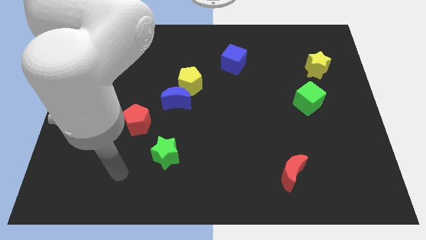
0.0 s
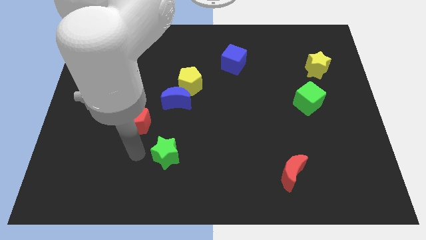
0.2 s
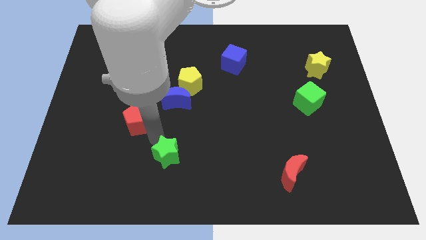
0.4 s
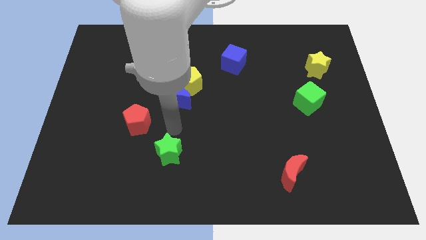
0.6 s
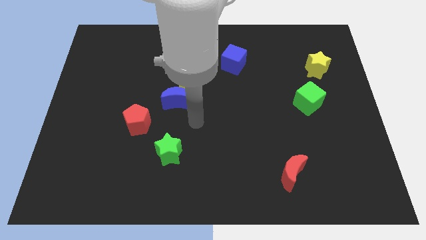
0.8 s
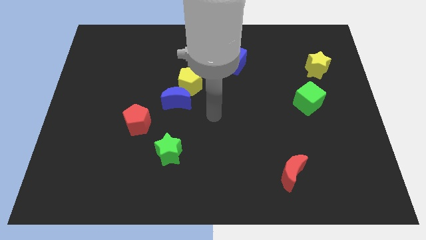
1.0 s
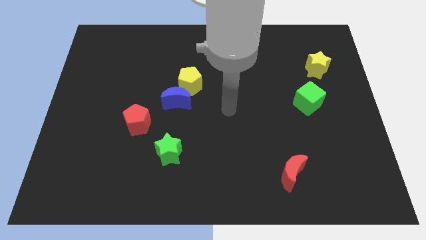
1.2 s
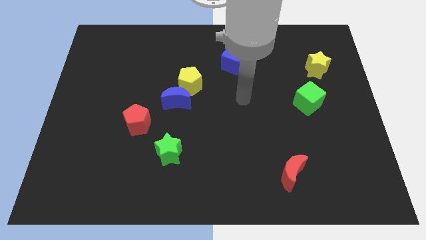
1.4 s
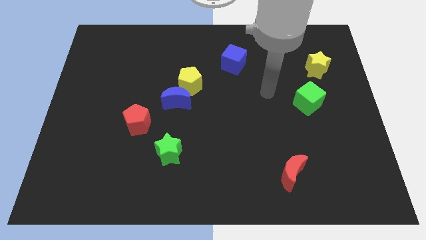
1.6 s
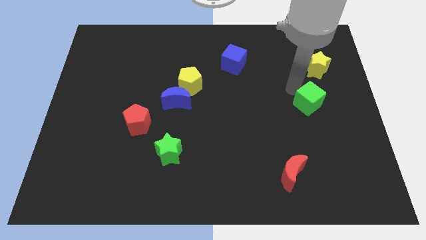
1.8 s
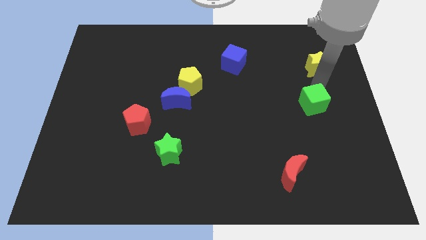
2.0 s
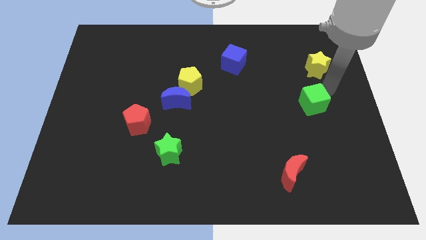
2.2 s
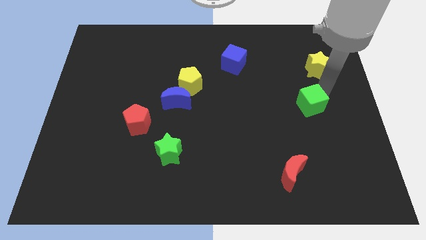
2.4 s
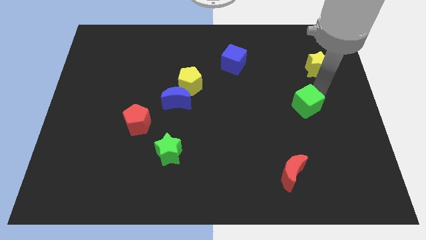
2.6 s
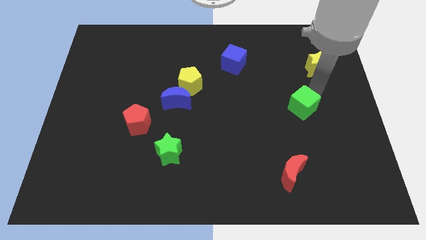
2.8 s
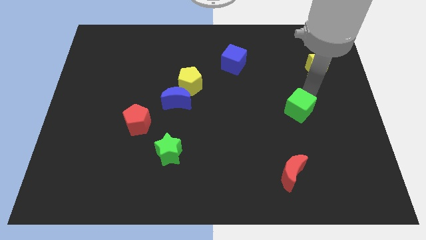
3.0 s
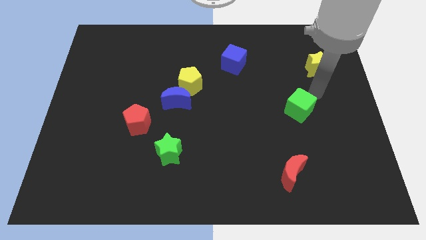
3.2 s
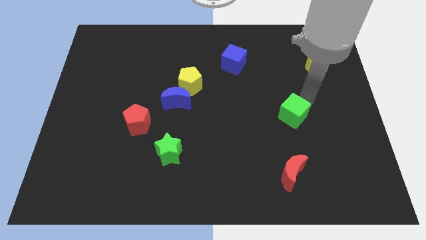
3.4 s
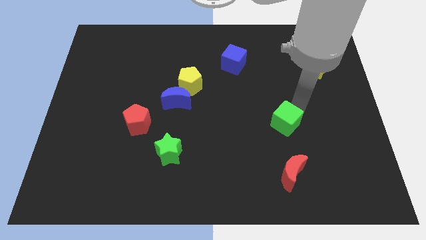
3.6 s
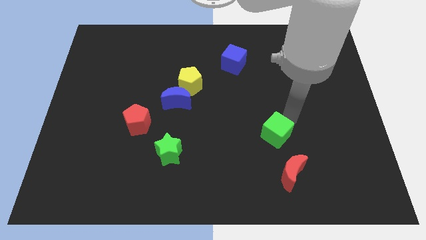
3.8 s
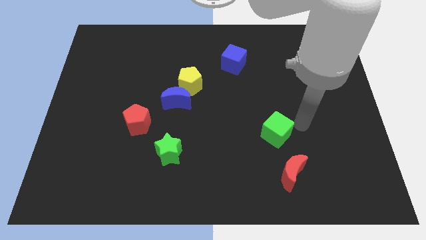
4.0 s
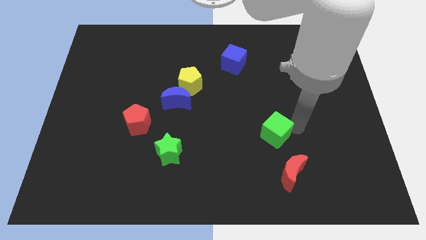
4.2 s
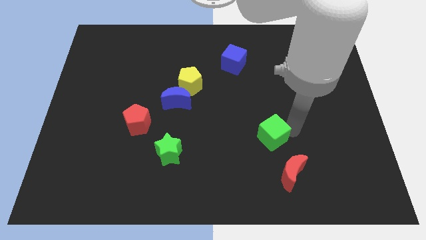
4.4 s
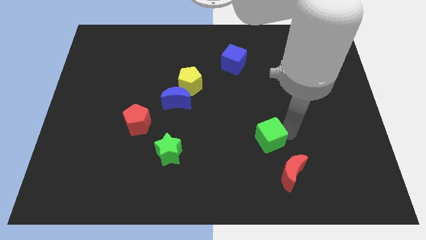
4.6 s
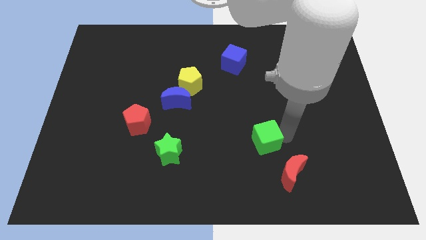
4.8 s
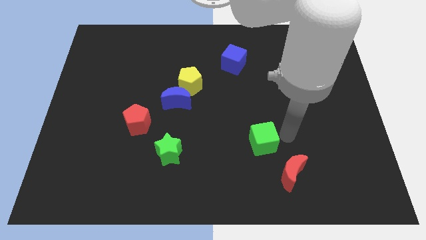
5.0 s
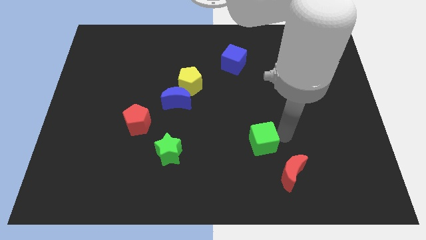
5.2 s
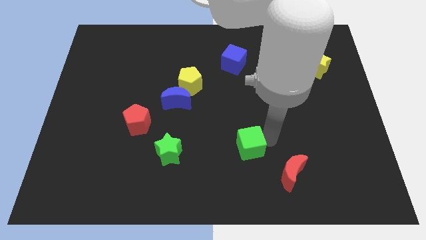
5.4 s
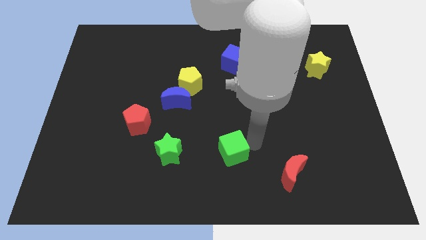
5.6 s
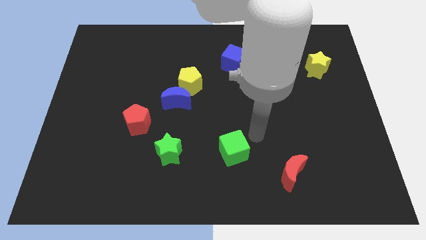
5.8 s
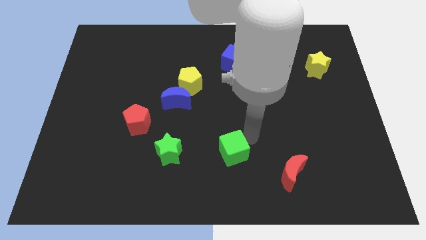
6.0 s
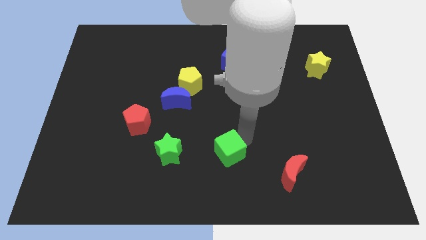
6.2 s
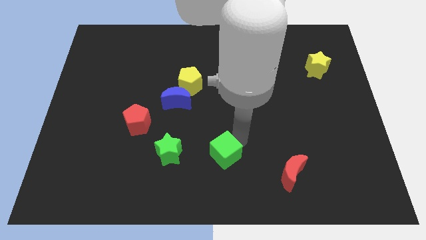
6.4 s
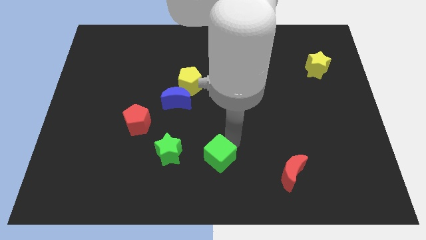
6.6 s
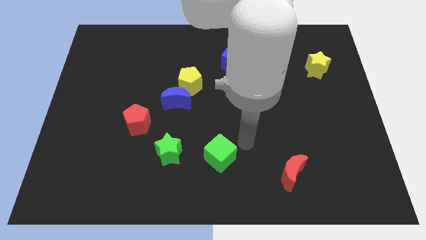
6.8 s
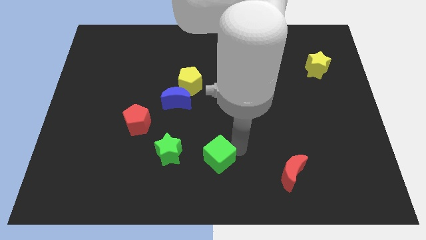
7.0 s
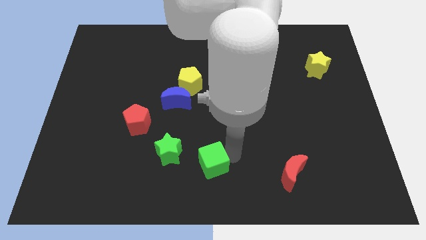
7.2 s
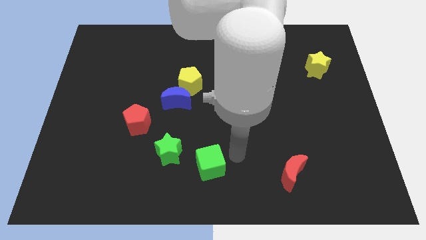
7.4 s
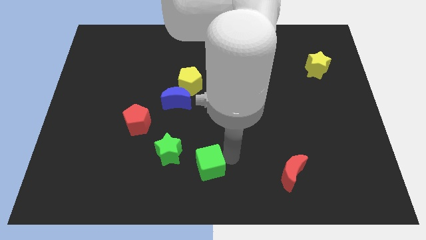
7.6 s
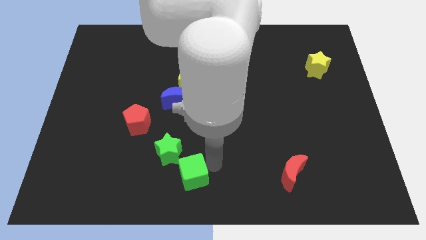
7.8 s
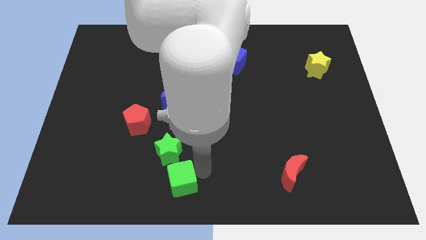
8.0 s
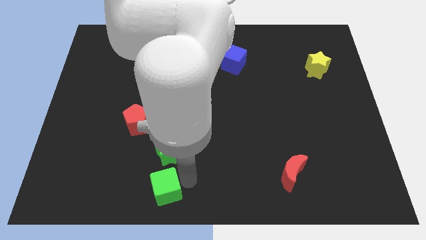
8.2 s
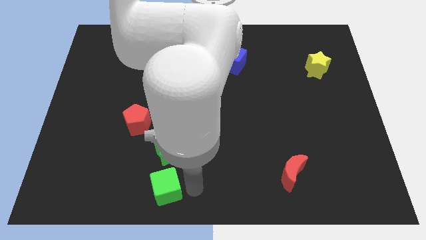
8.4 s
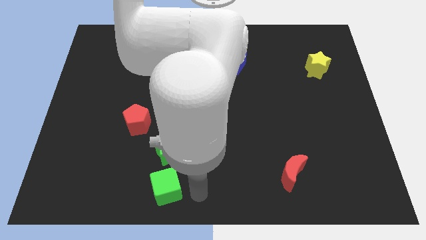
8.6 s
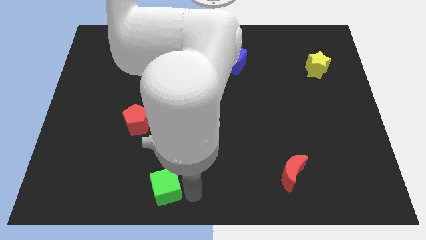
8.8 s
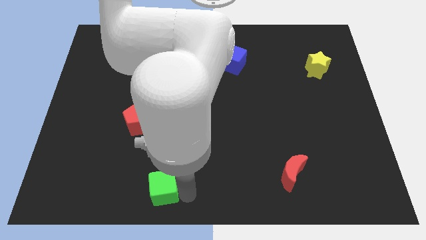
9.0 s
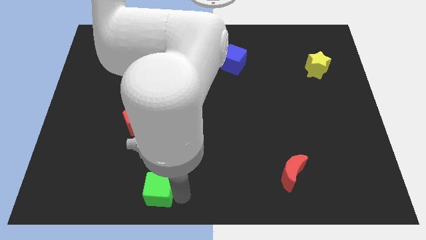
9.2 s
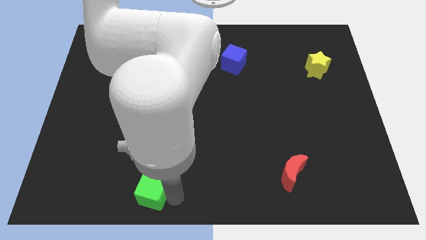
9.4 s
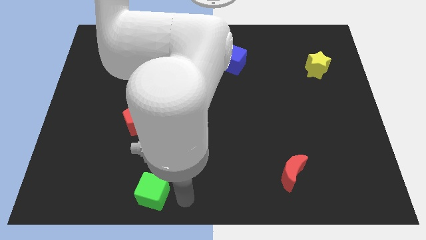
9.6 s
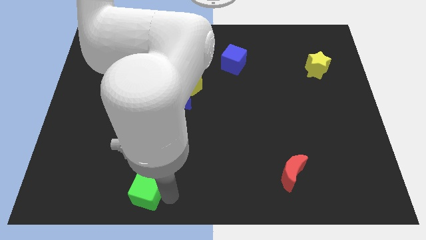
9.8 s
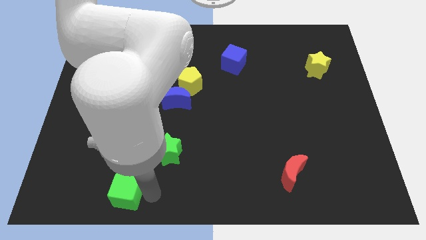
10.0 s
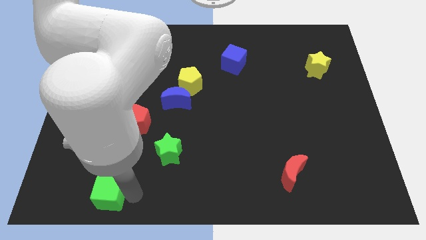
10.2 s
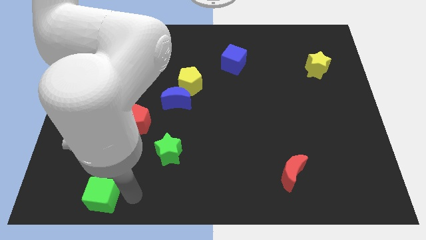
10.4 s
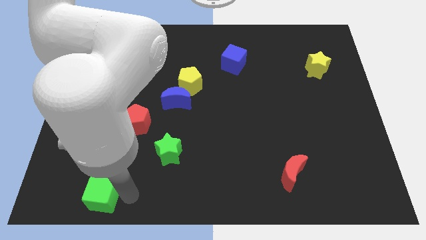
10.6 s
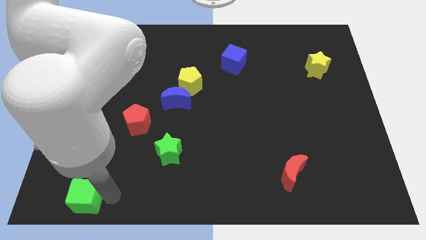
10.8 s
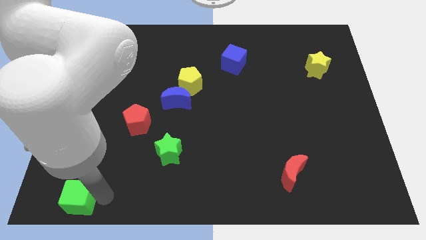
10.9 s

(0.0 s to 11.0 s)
move the green cube to the bottom left of the board

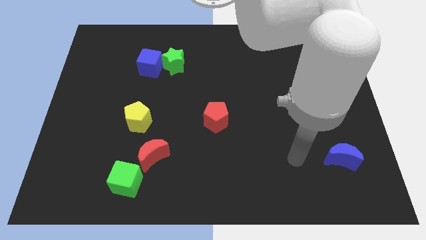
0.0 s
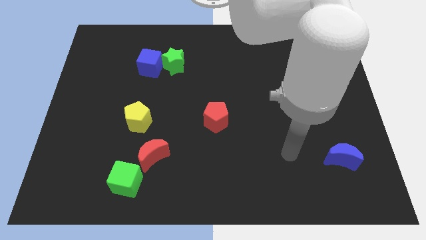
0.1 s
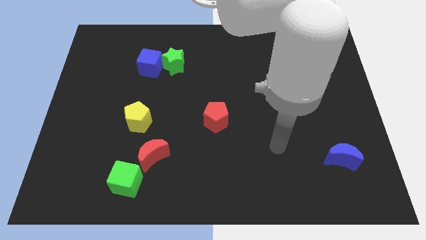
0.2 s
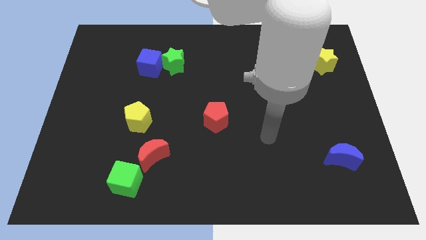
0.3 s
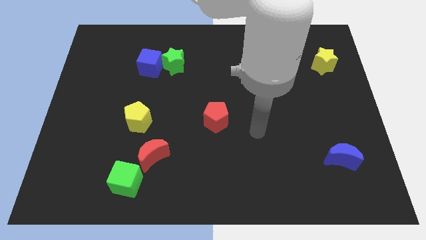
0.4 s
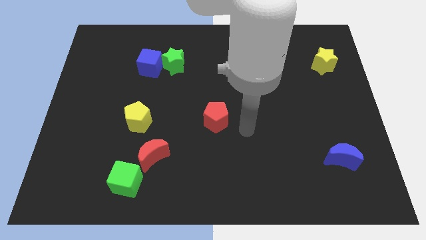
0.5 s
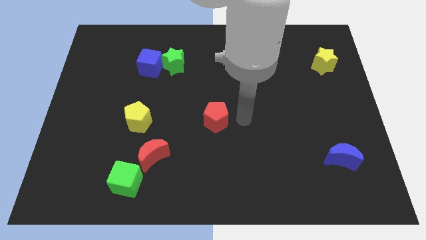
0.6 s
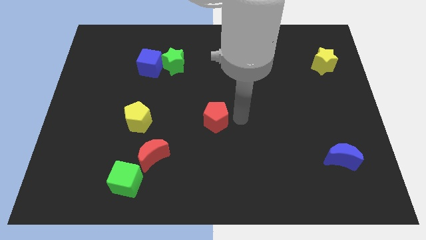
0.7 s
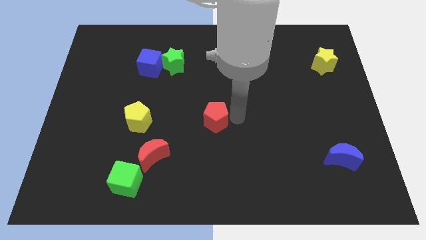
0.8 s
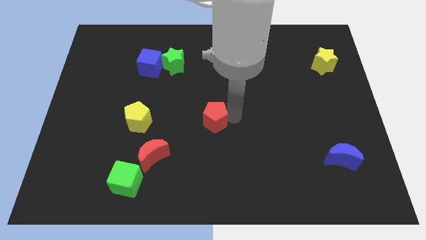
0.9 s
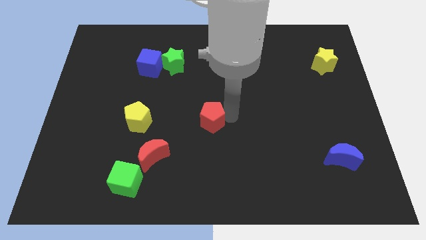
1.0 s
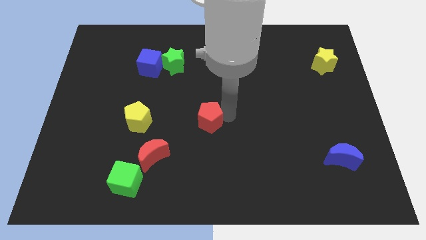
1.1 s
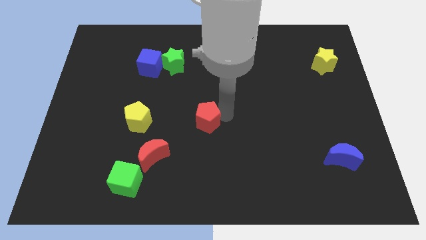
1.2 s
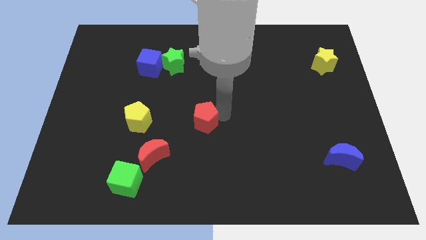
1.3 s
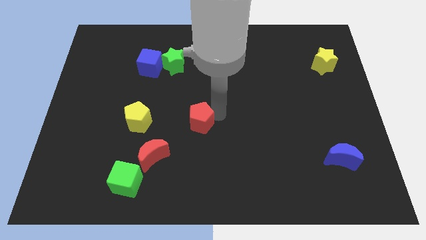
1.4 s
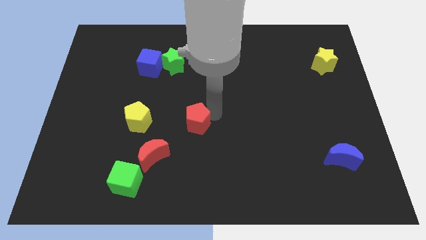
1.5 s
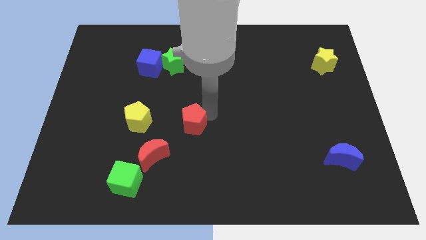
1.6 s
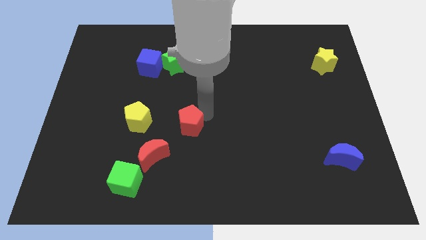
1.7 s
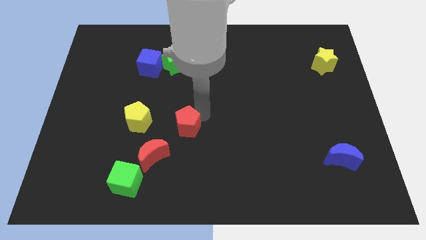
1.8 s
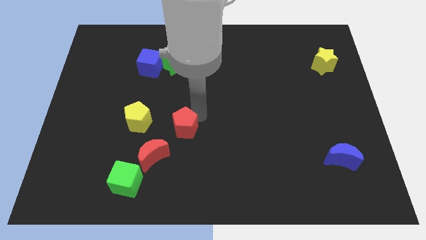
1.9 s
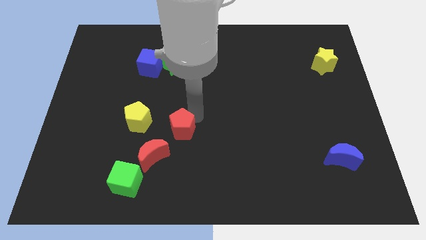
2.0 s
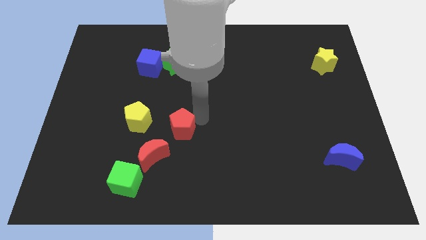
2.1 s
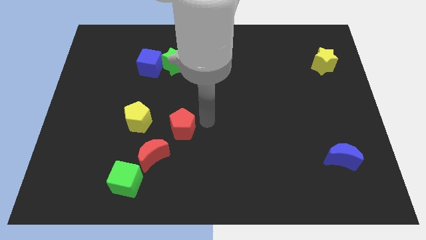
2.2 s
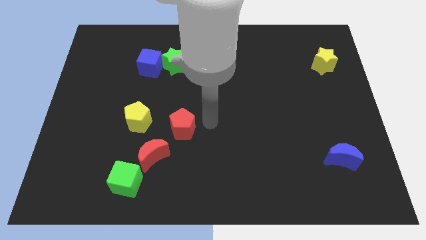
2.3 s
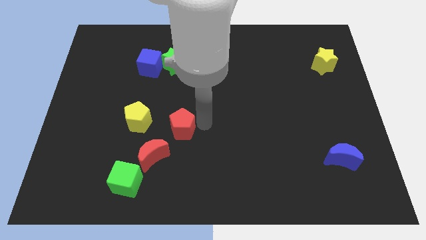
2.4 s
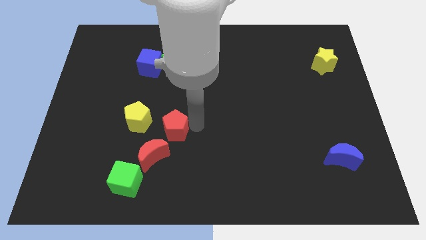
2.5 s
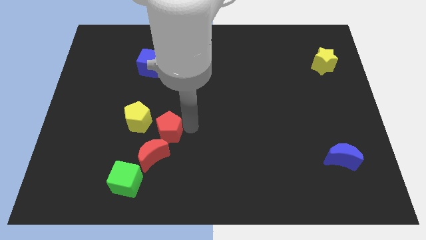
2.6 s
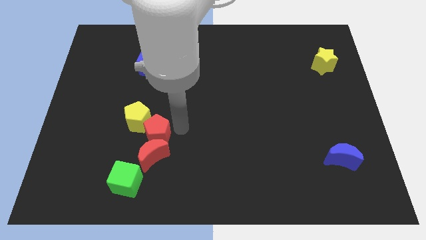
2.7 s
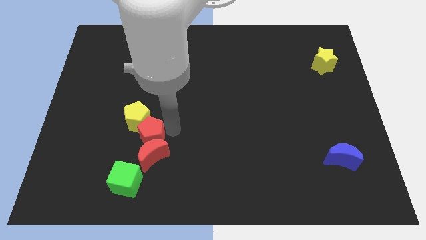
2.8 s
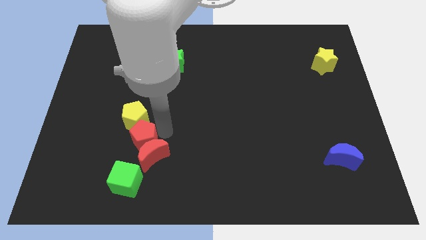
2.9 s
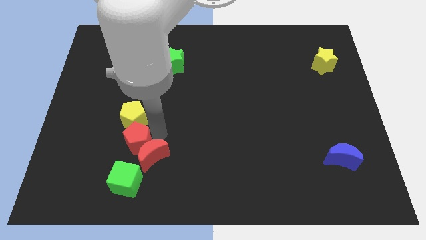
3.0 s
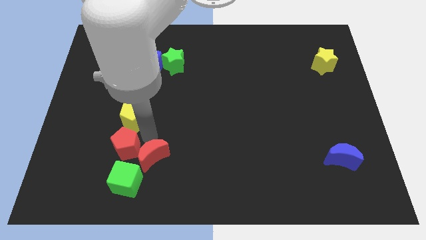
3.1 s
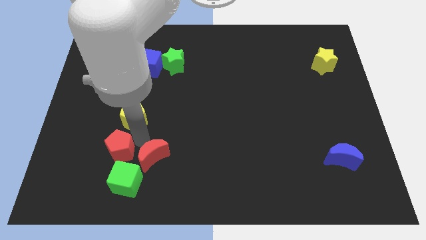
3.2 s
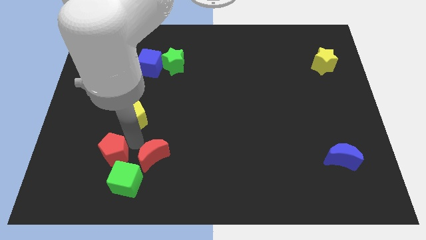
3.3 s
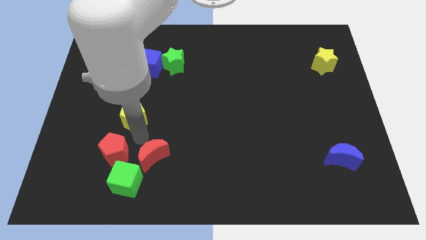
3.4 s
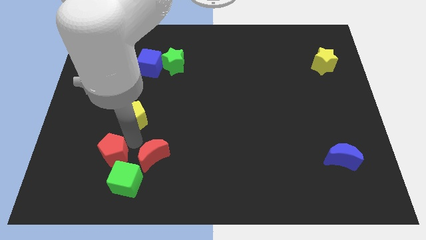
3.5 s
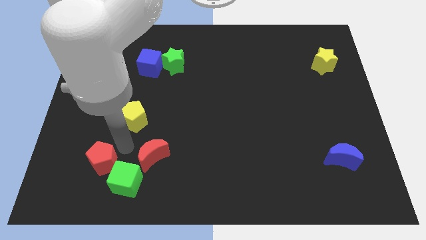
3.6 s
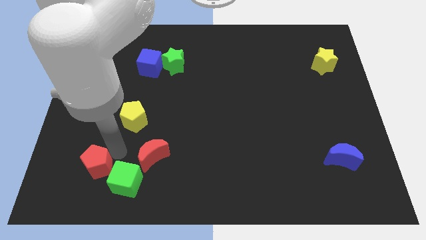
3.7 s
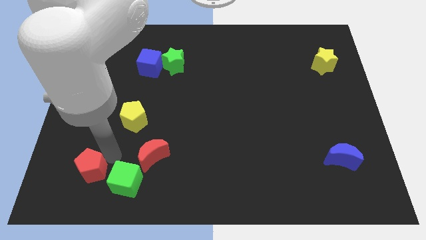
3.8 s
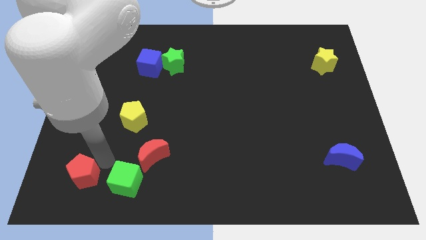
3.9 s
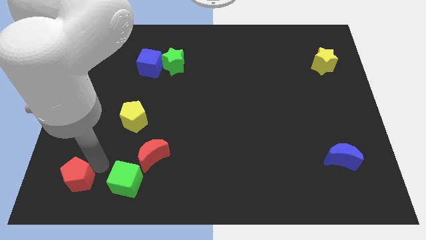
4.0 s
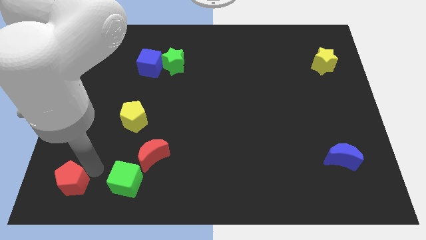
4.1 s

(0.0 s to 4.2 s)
move the red pentagon to the bottom left corner
